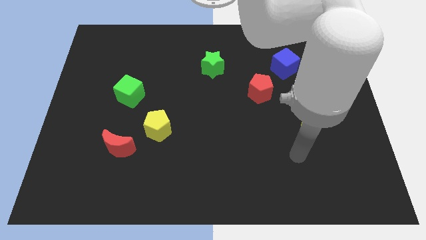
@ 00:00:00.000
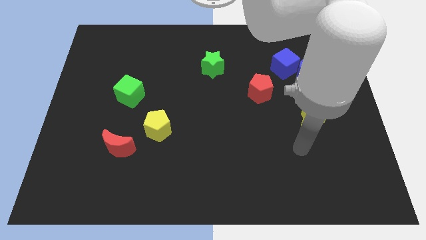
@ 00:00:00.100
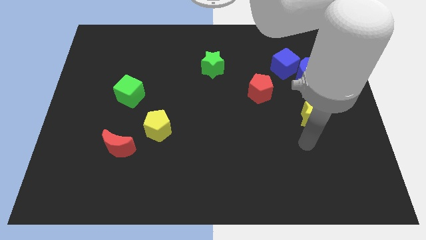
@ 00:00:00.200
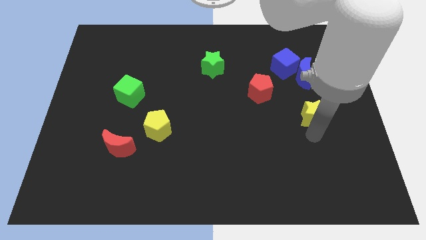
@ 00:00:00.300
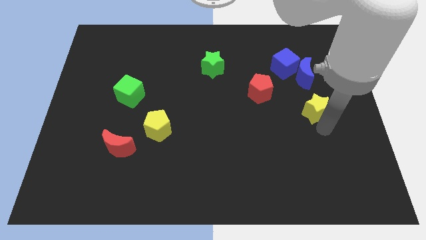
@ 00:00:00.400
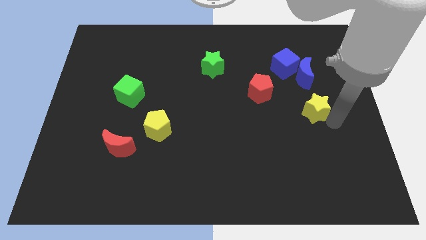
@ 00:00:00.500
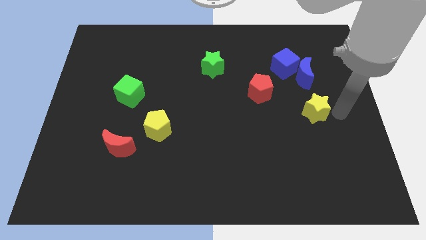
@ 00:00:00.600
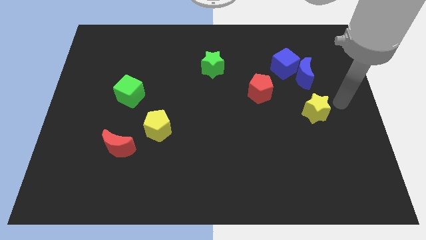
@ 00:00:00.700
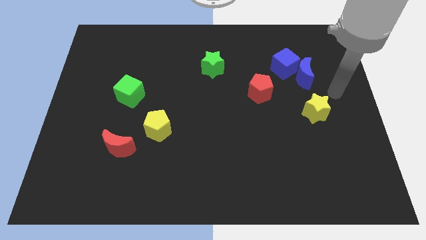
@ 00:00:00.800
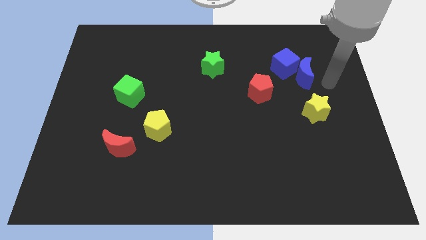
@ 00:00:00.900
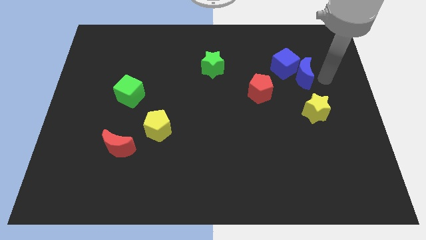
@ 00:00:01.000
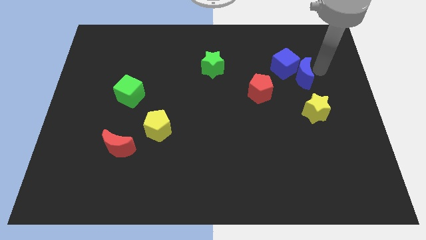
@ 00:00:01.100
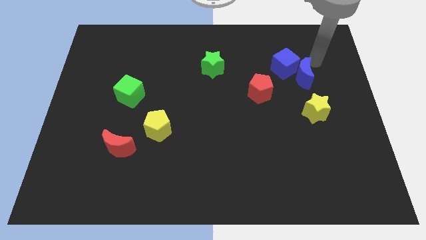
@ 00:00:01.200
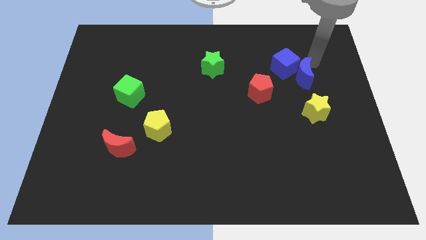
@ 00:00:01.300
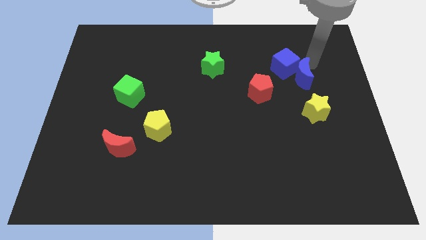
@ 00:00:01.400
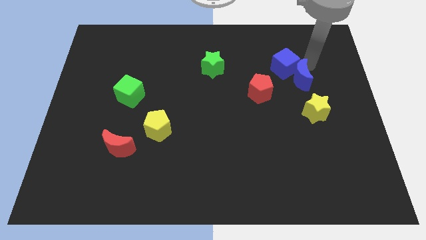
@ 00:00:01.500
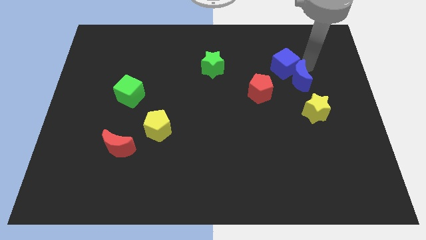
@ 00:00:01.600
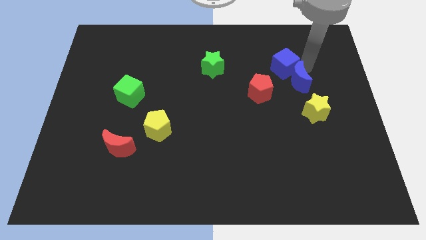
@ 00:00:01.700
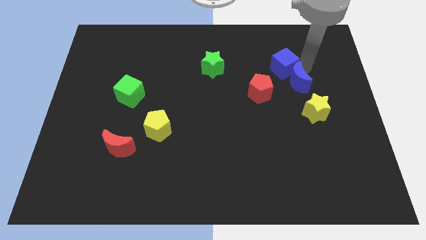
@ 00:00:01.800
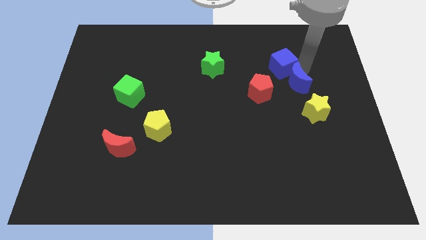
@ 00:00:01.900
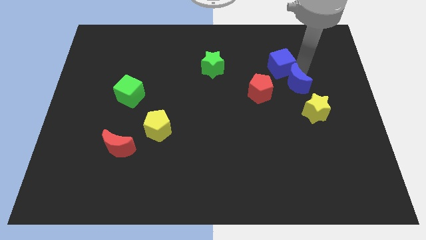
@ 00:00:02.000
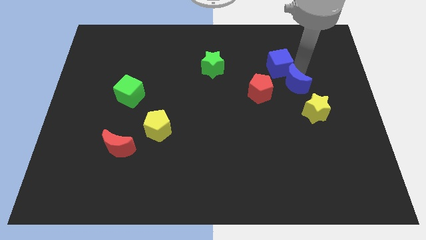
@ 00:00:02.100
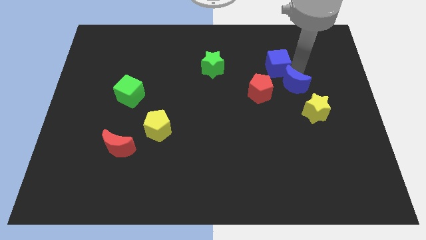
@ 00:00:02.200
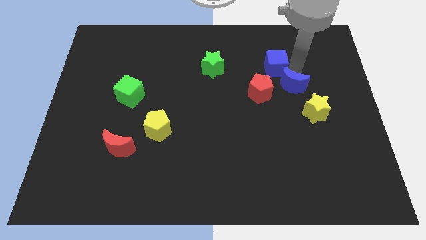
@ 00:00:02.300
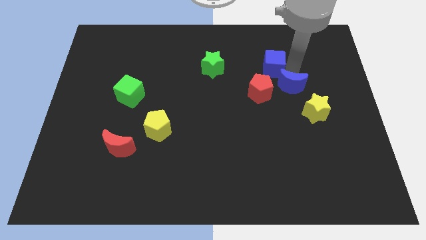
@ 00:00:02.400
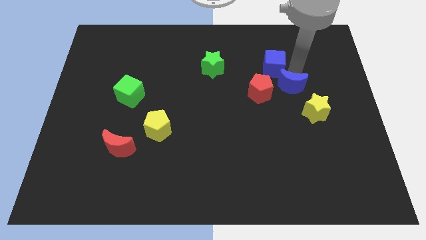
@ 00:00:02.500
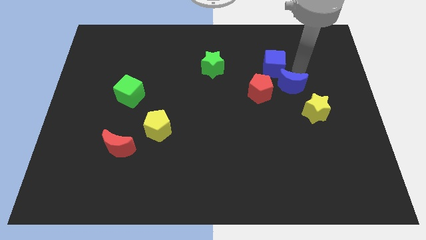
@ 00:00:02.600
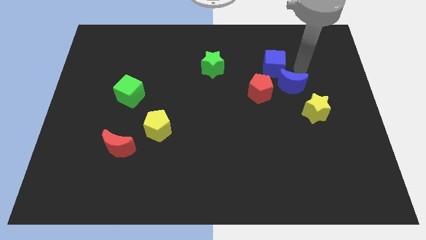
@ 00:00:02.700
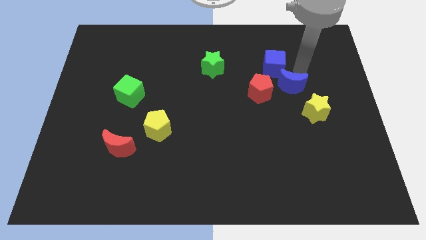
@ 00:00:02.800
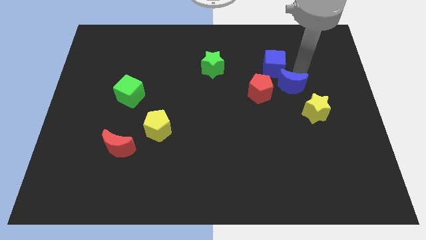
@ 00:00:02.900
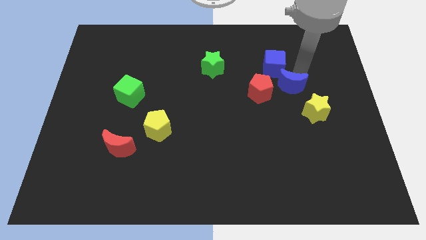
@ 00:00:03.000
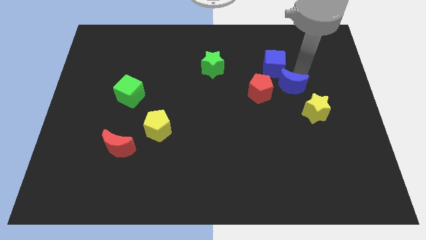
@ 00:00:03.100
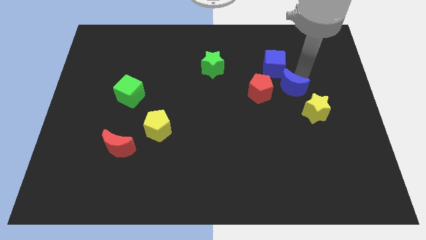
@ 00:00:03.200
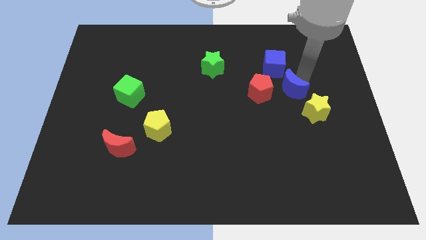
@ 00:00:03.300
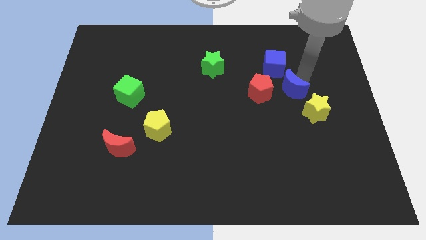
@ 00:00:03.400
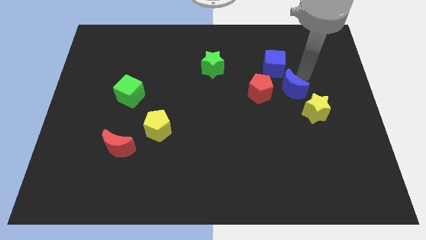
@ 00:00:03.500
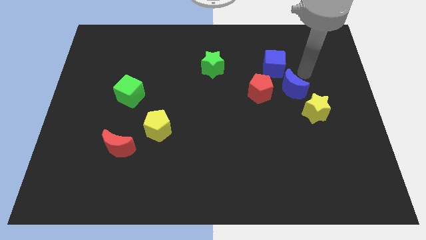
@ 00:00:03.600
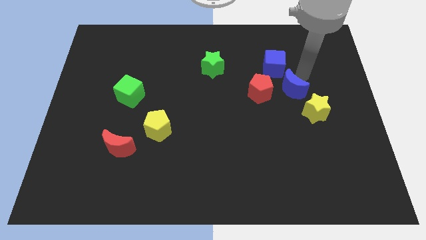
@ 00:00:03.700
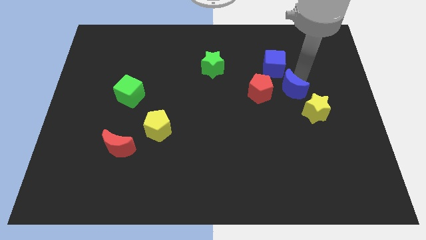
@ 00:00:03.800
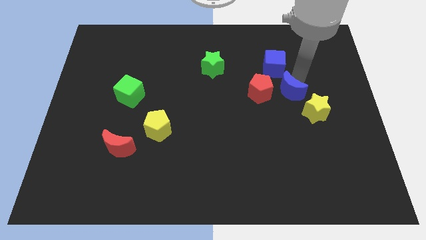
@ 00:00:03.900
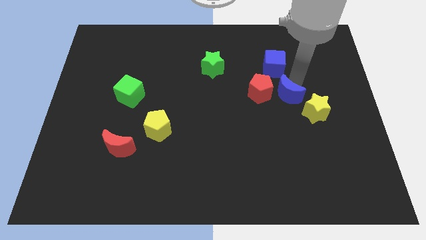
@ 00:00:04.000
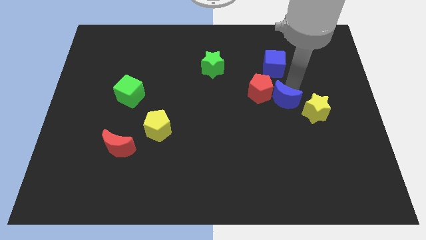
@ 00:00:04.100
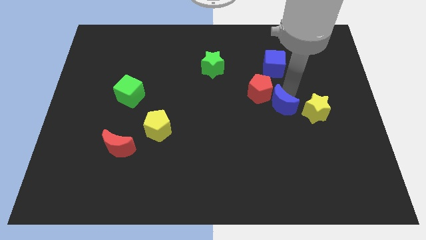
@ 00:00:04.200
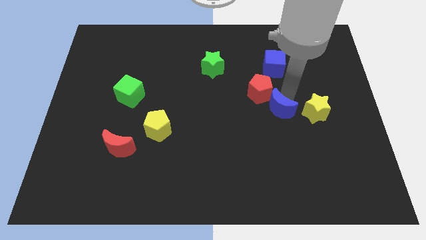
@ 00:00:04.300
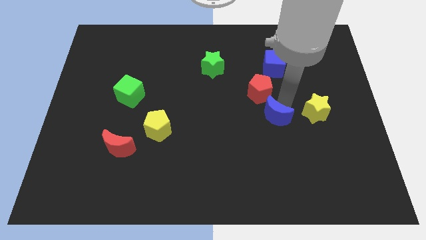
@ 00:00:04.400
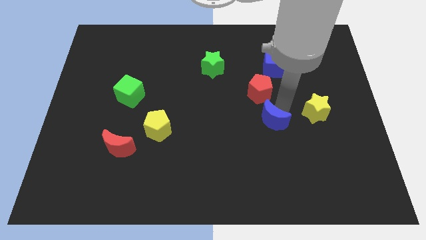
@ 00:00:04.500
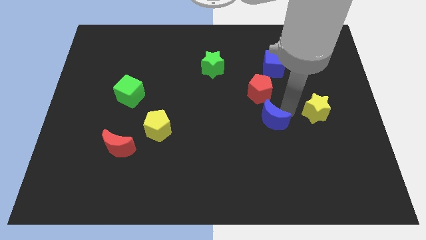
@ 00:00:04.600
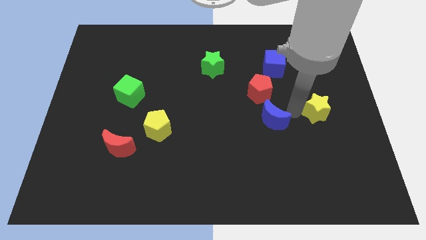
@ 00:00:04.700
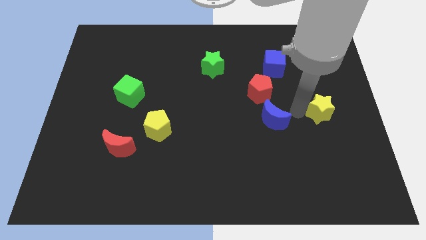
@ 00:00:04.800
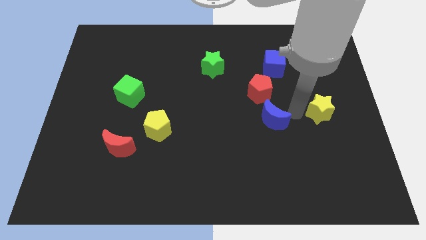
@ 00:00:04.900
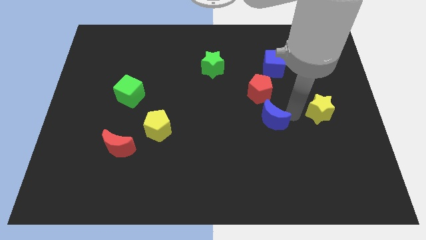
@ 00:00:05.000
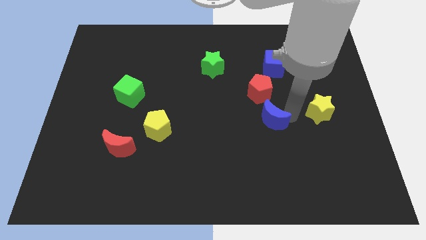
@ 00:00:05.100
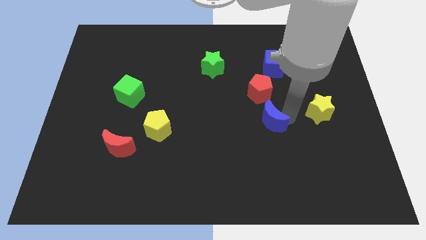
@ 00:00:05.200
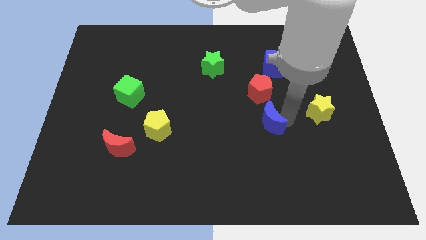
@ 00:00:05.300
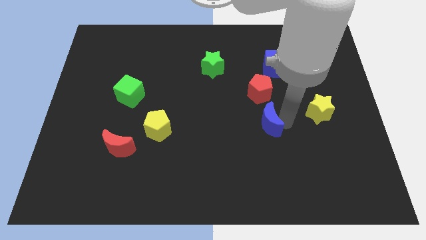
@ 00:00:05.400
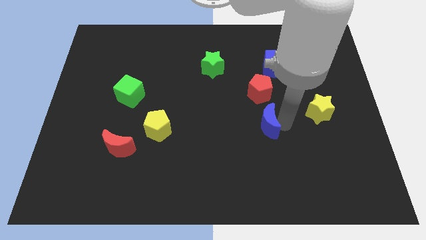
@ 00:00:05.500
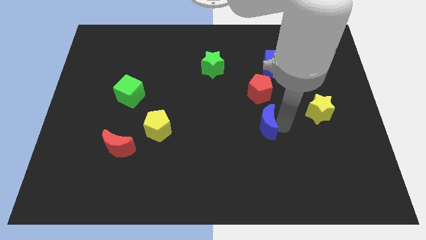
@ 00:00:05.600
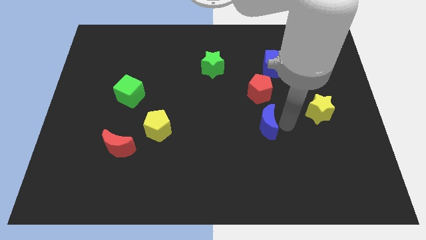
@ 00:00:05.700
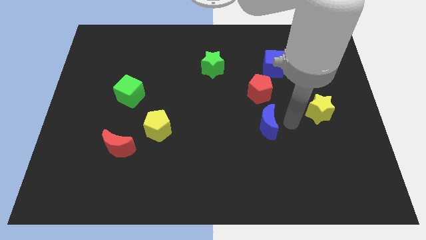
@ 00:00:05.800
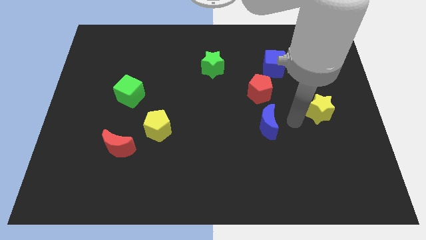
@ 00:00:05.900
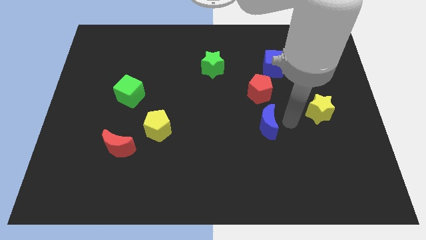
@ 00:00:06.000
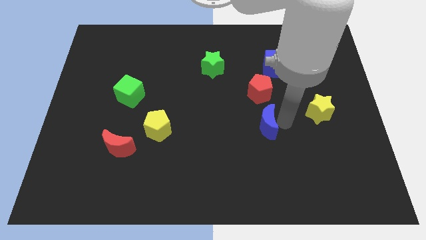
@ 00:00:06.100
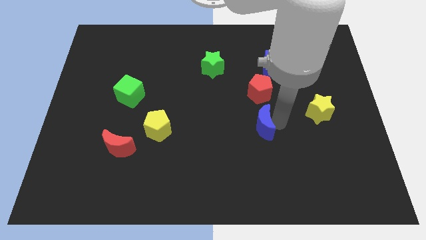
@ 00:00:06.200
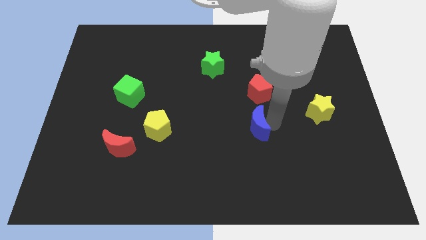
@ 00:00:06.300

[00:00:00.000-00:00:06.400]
slide the blue moon down and then left

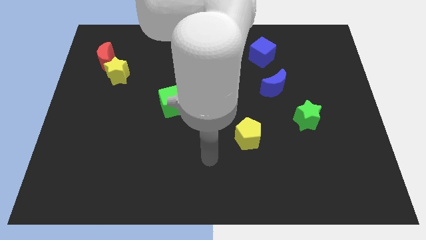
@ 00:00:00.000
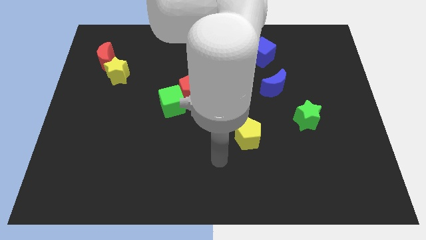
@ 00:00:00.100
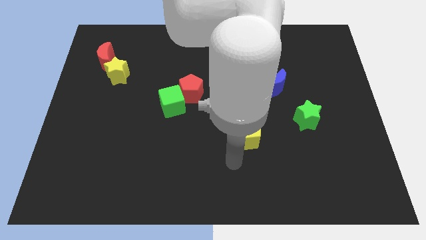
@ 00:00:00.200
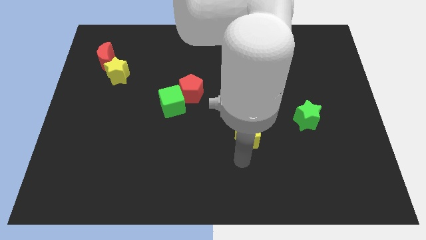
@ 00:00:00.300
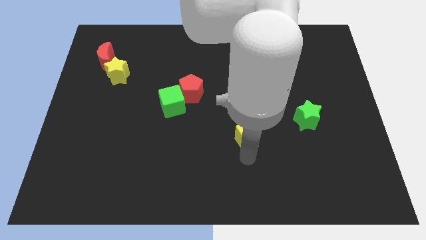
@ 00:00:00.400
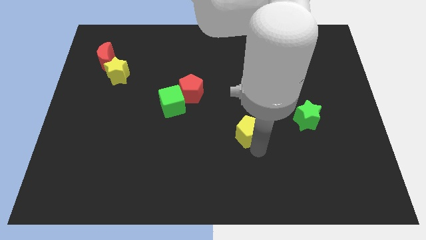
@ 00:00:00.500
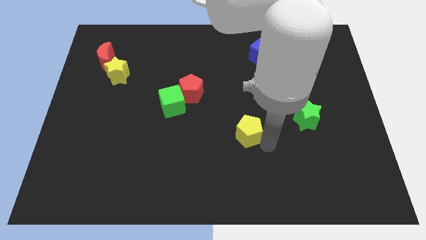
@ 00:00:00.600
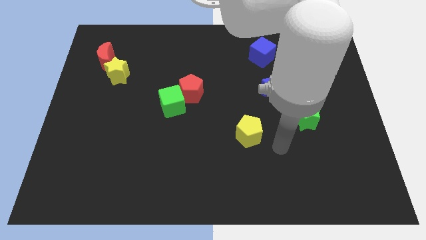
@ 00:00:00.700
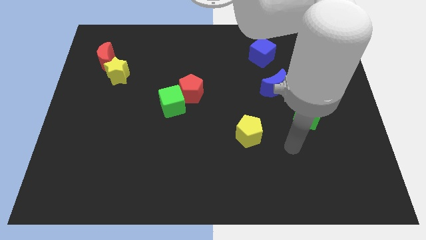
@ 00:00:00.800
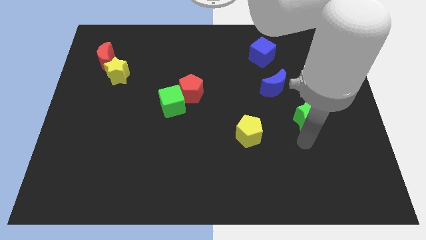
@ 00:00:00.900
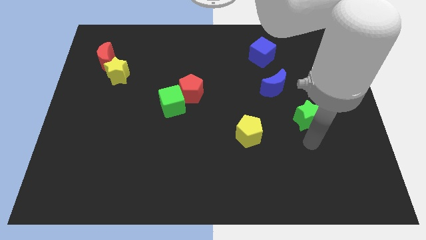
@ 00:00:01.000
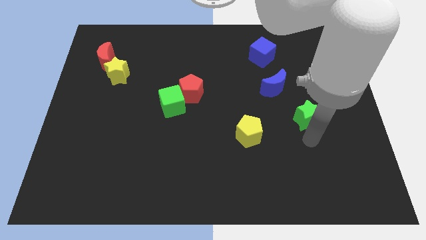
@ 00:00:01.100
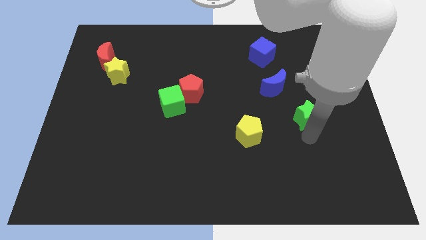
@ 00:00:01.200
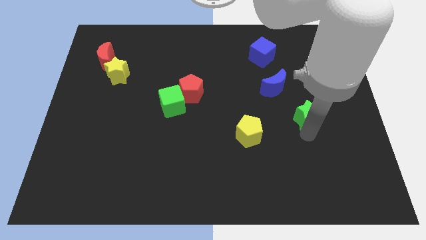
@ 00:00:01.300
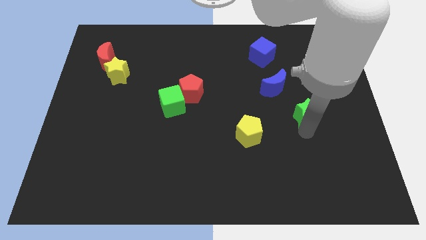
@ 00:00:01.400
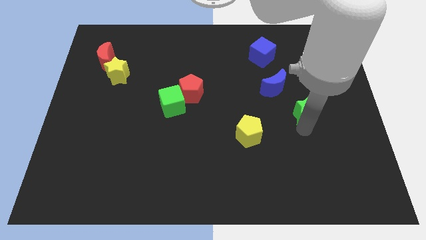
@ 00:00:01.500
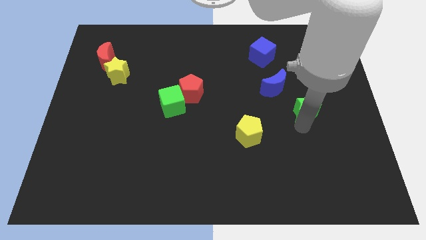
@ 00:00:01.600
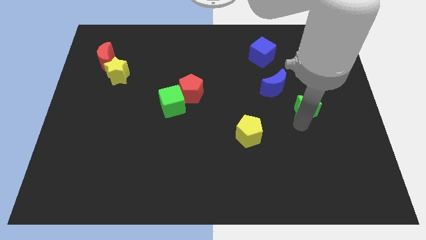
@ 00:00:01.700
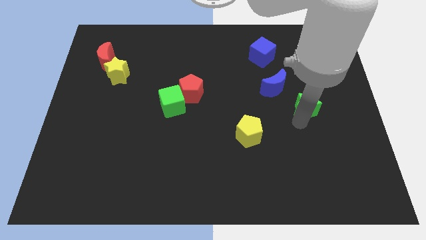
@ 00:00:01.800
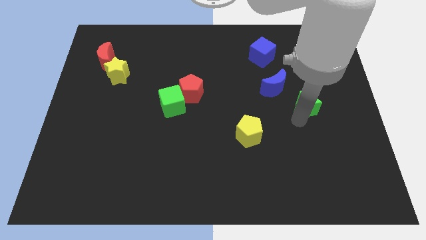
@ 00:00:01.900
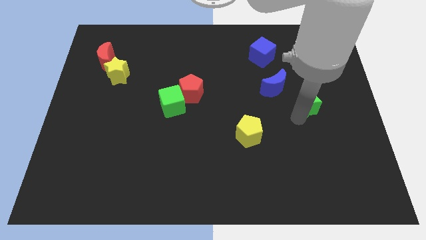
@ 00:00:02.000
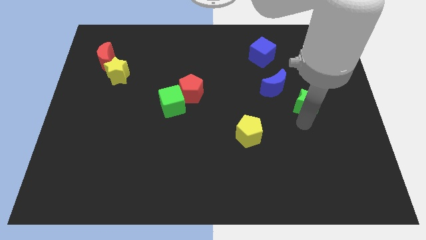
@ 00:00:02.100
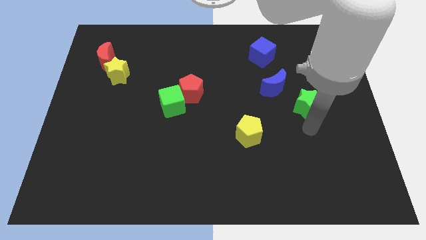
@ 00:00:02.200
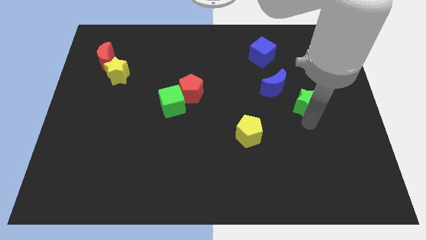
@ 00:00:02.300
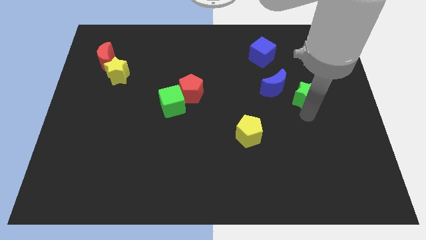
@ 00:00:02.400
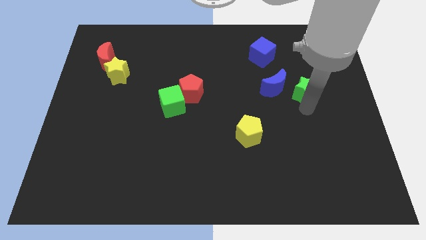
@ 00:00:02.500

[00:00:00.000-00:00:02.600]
slide the green star a little bit upwards
